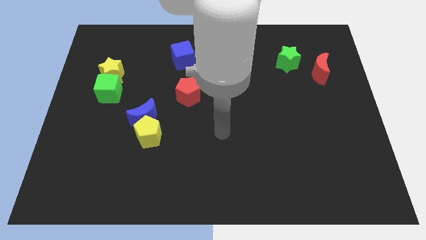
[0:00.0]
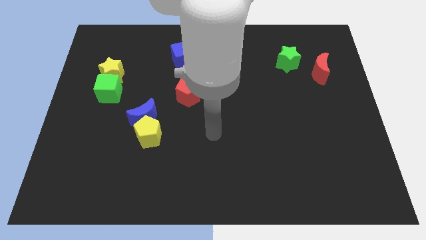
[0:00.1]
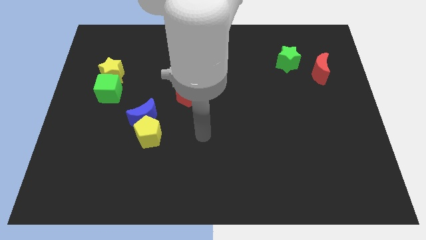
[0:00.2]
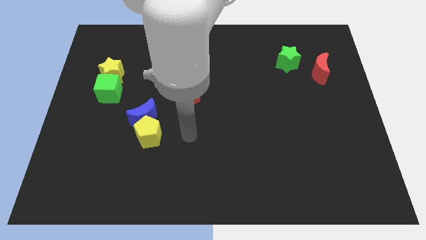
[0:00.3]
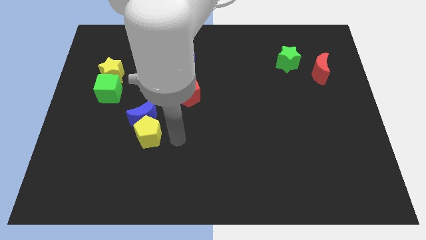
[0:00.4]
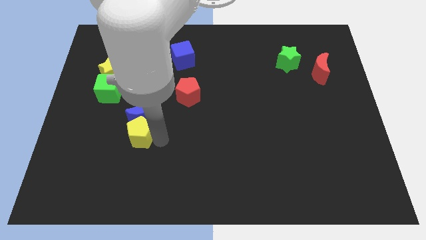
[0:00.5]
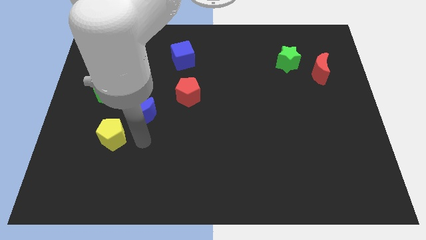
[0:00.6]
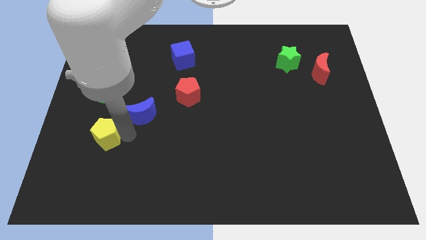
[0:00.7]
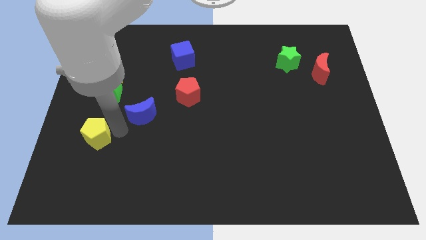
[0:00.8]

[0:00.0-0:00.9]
separate the blue moon from the yellow pentagon

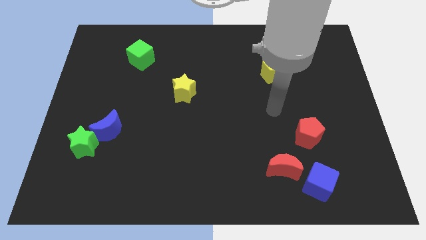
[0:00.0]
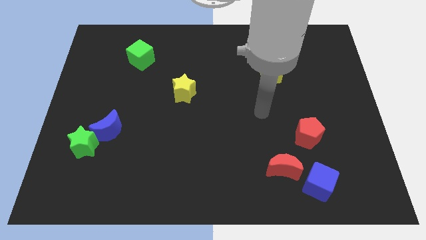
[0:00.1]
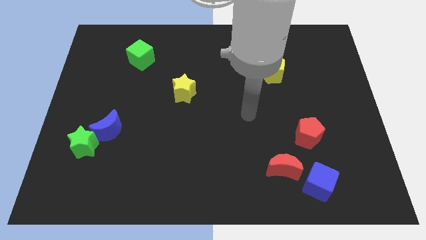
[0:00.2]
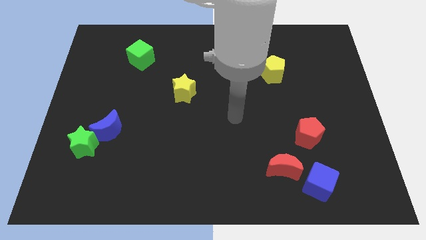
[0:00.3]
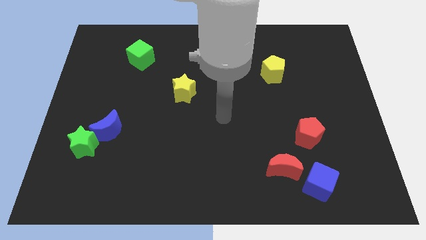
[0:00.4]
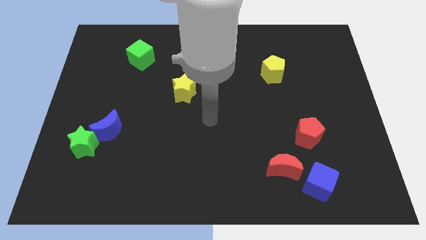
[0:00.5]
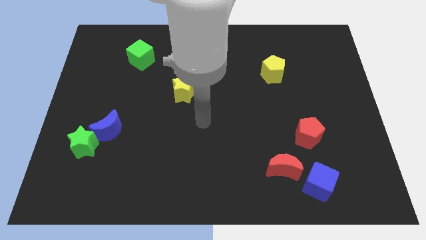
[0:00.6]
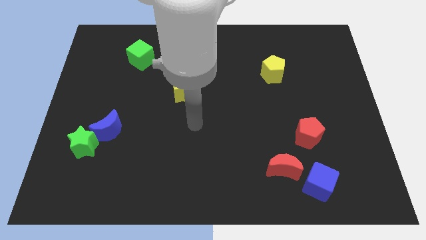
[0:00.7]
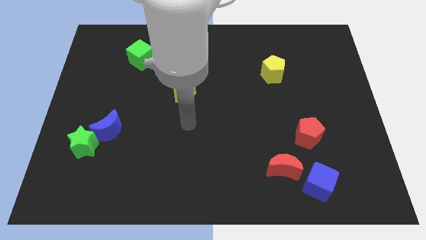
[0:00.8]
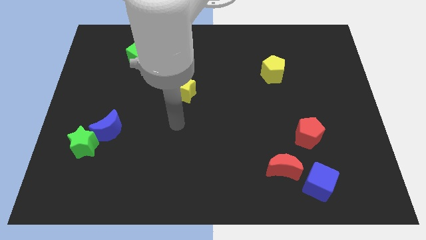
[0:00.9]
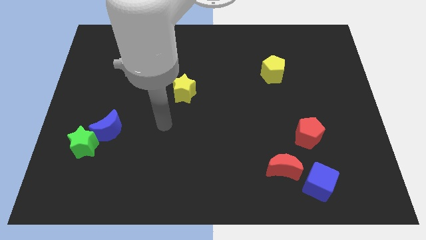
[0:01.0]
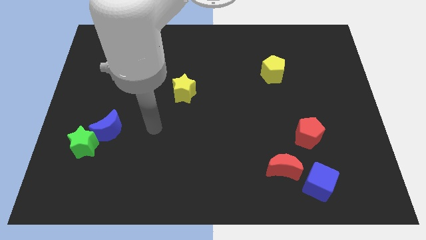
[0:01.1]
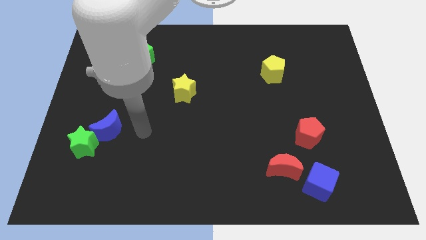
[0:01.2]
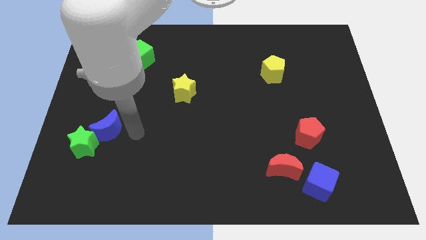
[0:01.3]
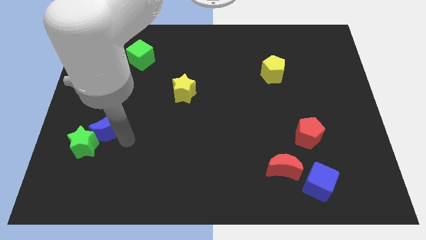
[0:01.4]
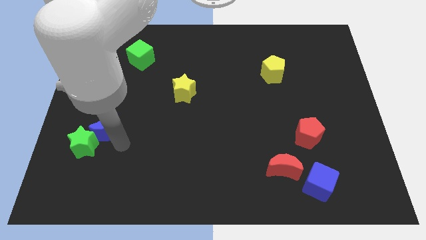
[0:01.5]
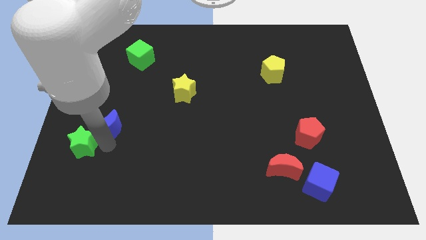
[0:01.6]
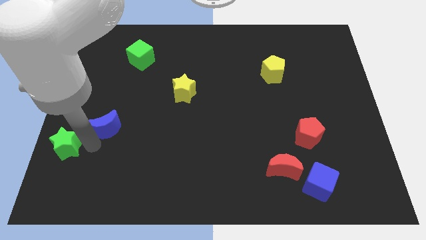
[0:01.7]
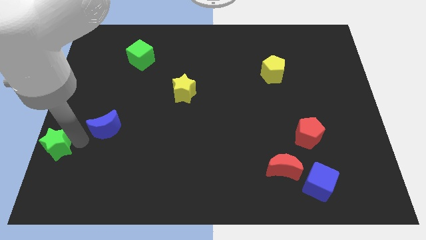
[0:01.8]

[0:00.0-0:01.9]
move the blue moon away from the green star

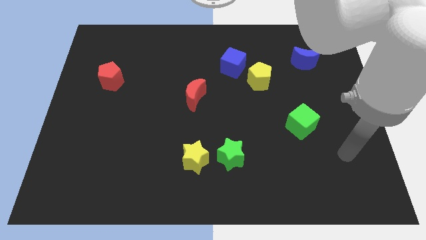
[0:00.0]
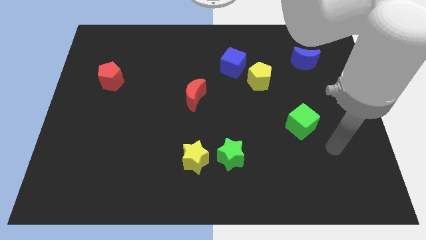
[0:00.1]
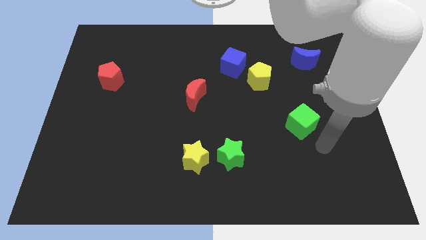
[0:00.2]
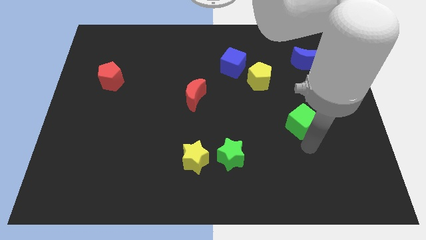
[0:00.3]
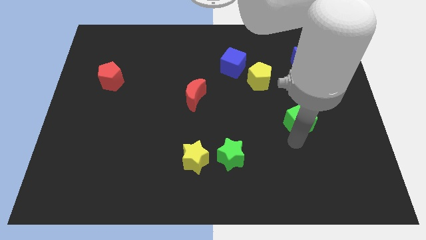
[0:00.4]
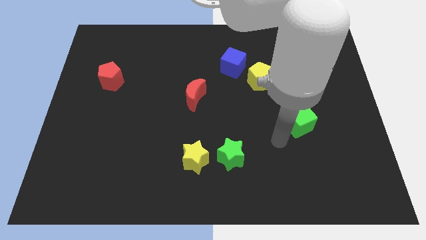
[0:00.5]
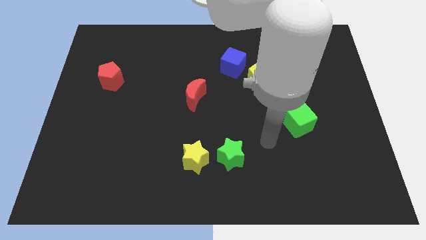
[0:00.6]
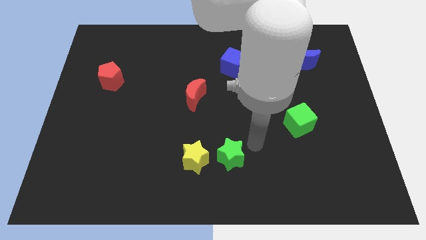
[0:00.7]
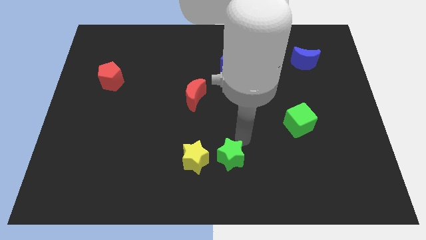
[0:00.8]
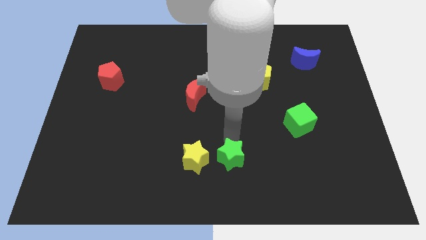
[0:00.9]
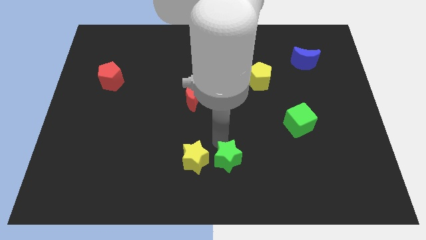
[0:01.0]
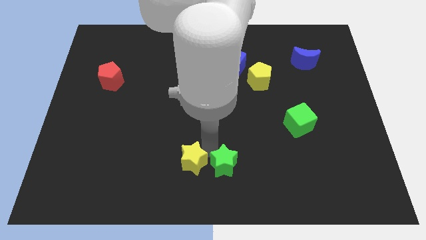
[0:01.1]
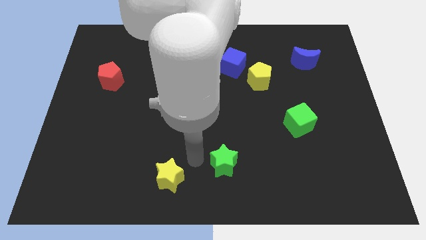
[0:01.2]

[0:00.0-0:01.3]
move the green star away from the yellow star

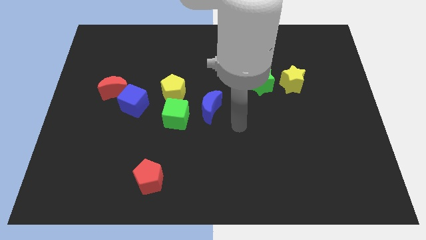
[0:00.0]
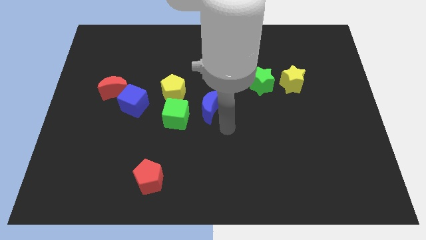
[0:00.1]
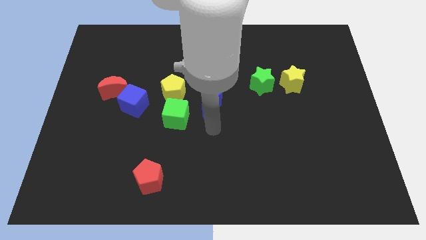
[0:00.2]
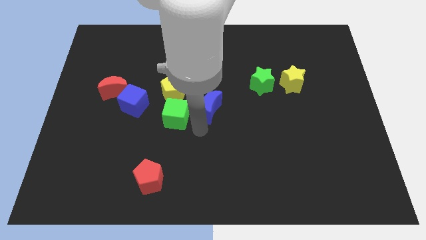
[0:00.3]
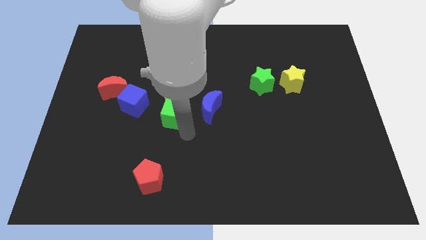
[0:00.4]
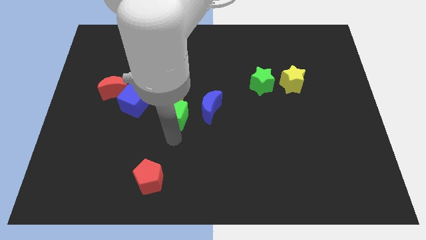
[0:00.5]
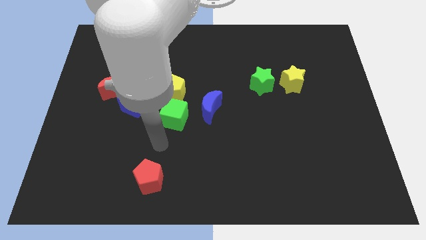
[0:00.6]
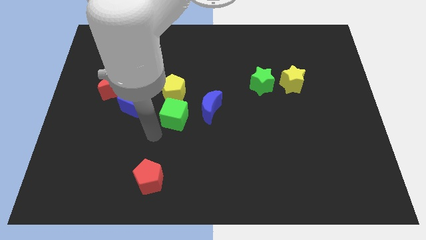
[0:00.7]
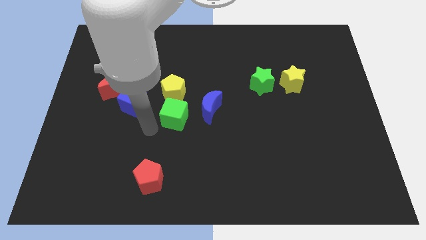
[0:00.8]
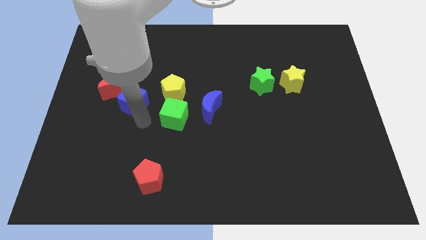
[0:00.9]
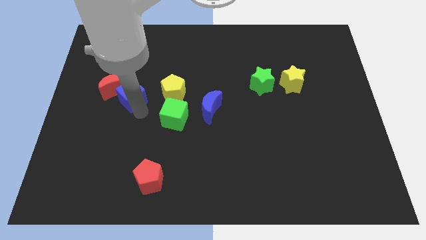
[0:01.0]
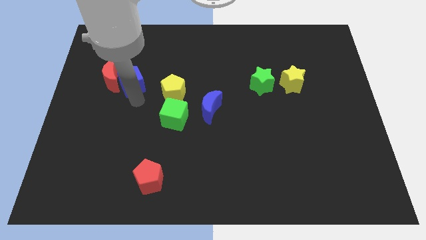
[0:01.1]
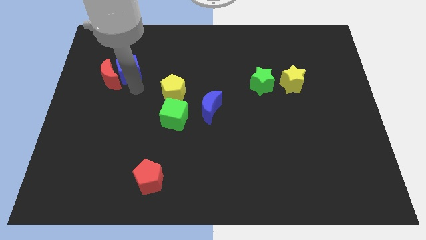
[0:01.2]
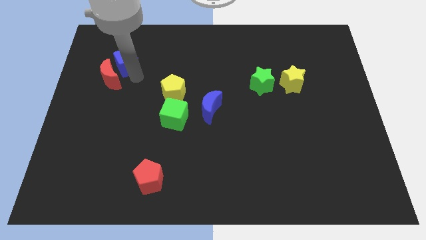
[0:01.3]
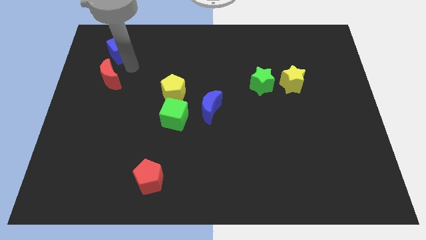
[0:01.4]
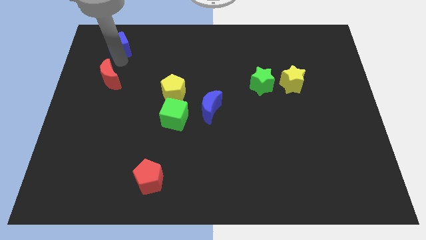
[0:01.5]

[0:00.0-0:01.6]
pull the red moon apart from the blue cube

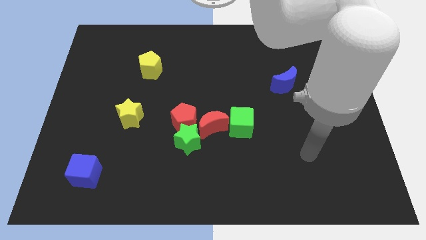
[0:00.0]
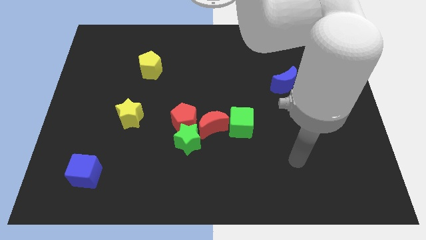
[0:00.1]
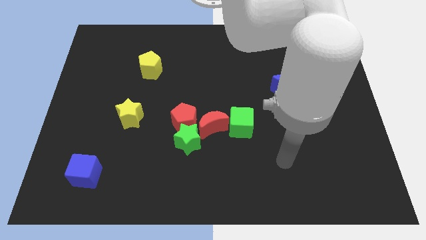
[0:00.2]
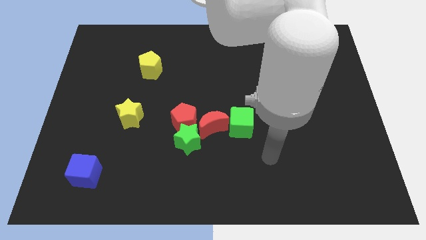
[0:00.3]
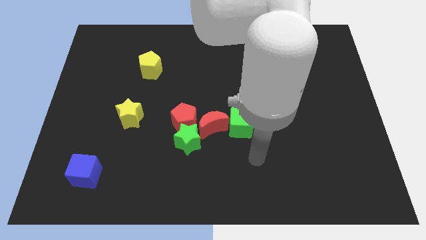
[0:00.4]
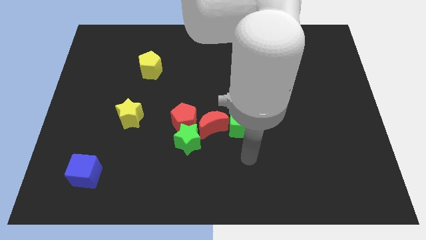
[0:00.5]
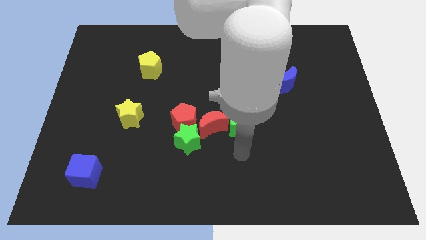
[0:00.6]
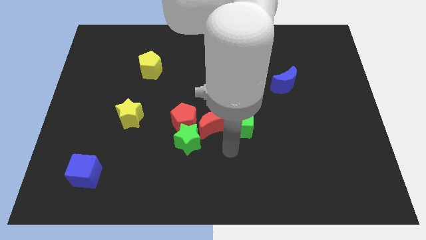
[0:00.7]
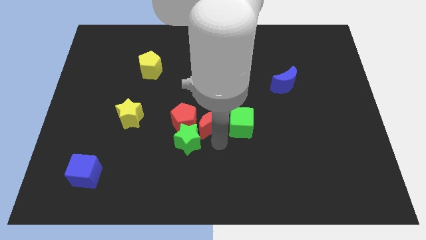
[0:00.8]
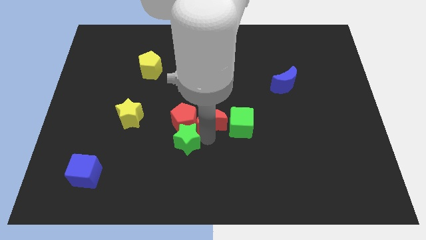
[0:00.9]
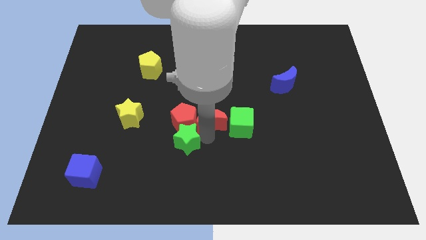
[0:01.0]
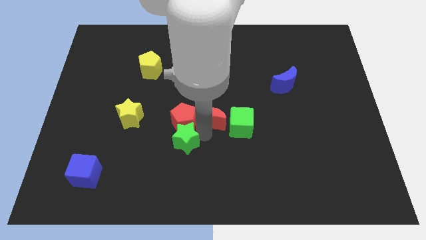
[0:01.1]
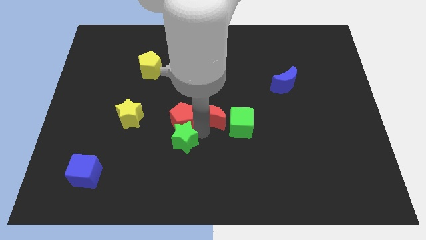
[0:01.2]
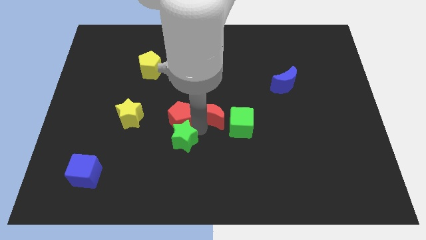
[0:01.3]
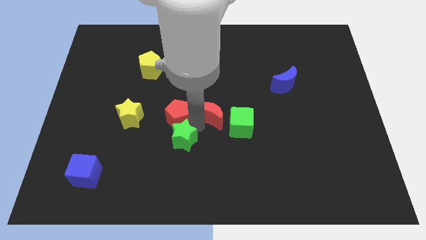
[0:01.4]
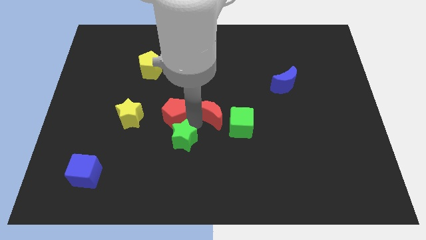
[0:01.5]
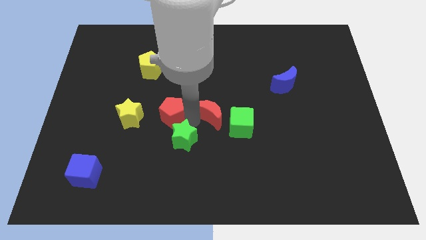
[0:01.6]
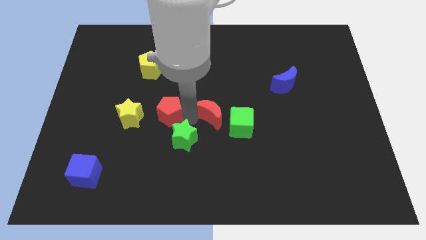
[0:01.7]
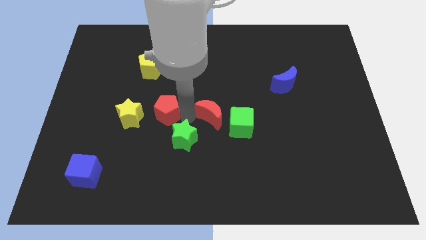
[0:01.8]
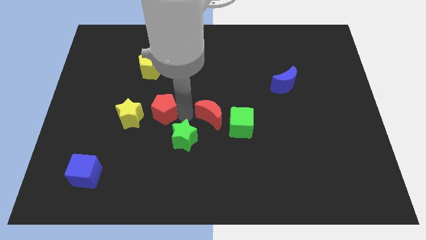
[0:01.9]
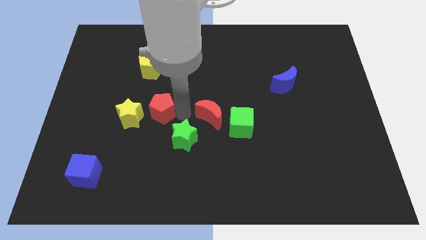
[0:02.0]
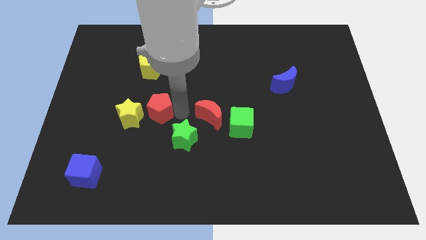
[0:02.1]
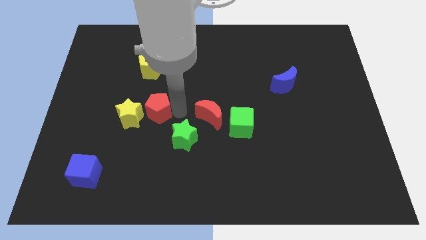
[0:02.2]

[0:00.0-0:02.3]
separate the red pentagon from the green star and red moon

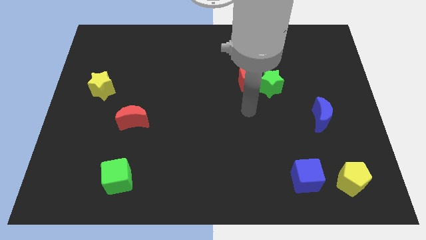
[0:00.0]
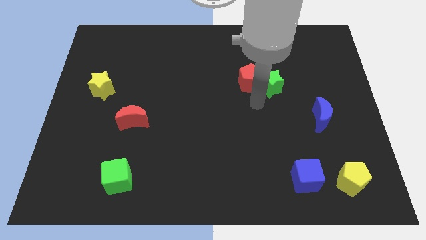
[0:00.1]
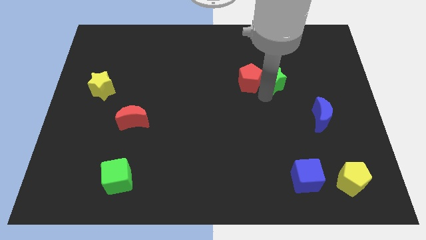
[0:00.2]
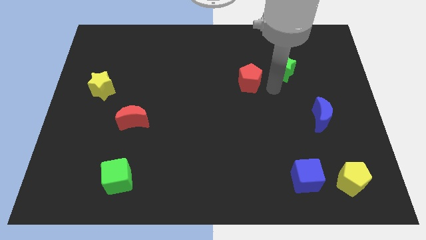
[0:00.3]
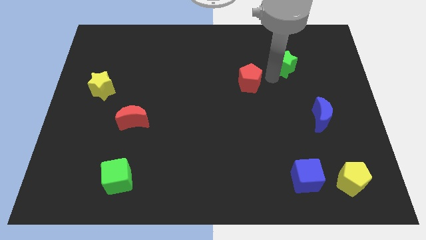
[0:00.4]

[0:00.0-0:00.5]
pull the red pentagon apart from the green star

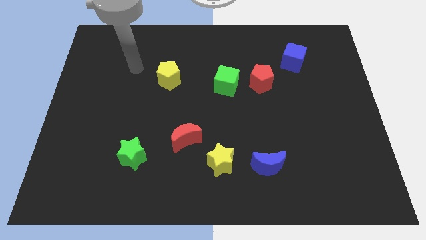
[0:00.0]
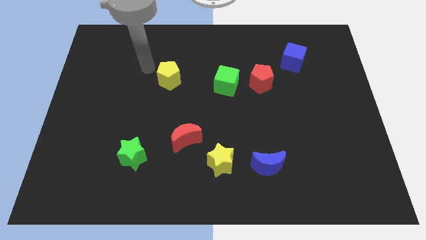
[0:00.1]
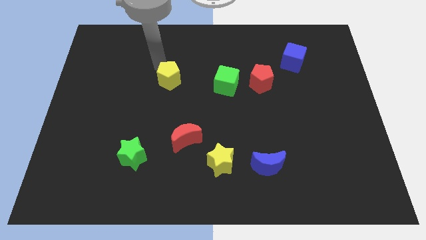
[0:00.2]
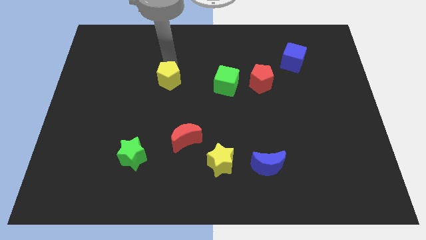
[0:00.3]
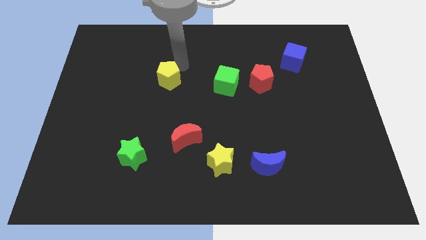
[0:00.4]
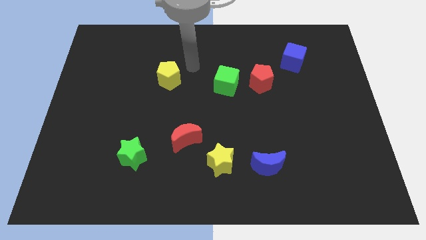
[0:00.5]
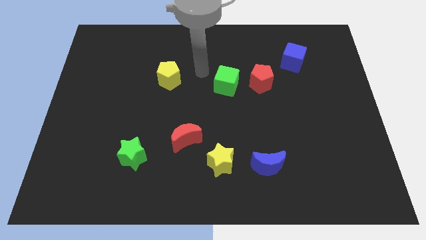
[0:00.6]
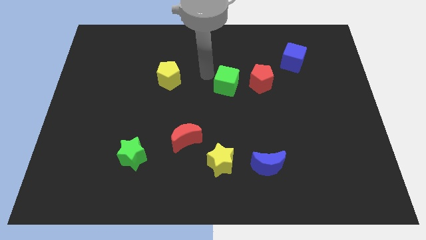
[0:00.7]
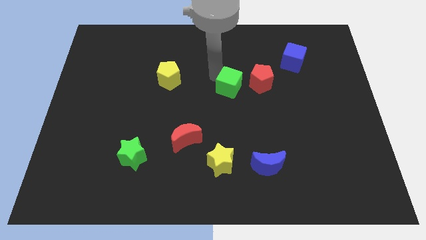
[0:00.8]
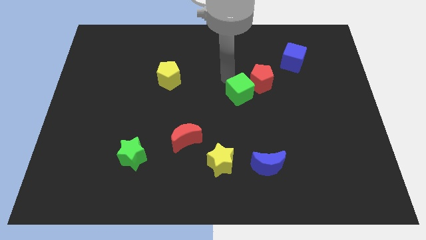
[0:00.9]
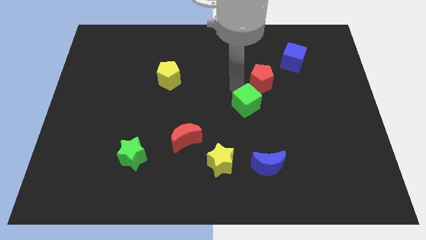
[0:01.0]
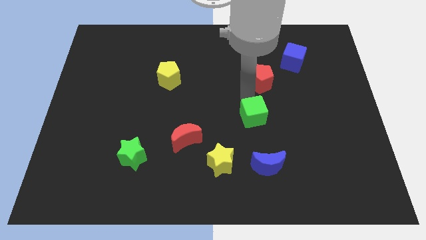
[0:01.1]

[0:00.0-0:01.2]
pull the red pentagon apart from the green cube
